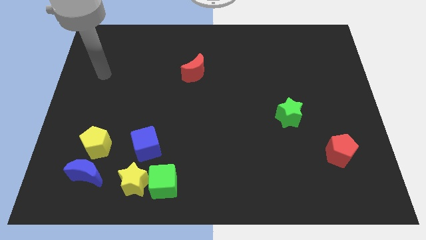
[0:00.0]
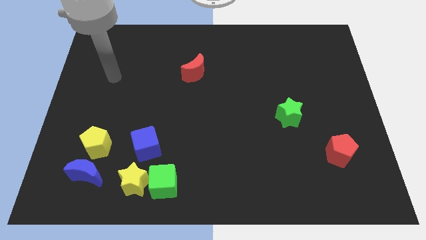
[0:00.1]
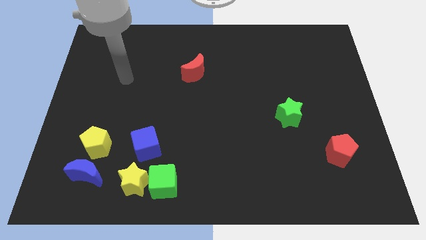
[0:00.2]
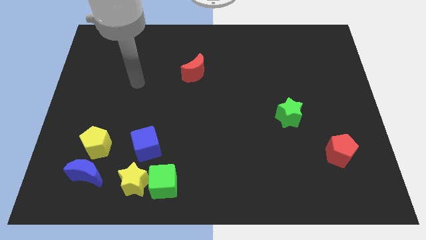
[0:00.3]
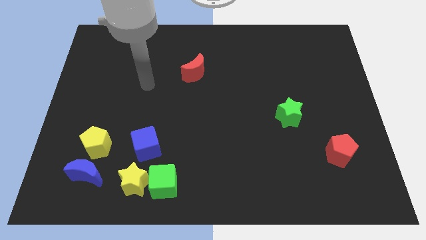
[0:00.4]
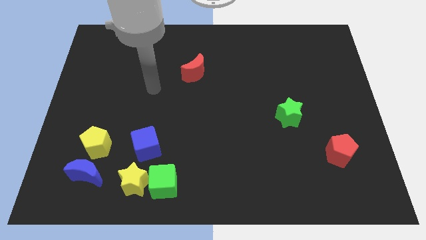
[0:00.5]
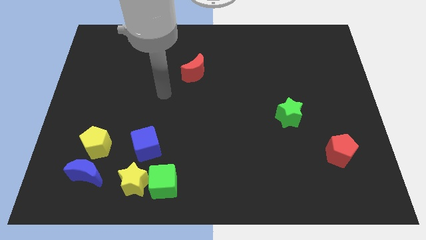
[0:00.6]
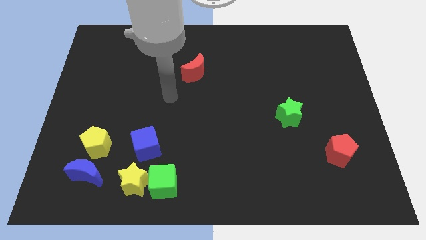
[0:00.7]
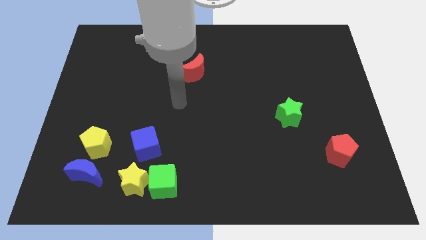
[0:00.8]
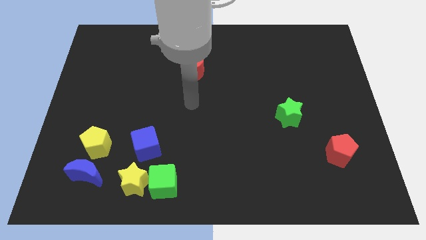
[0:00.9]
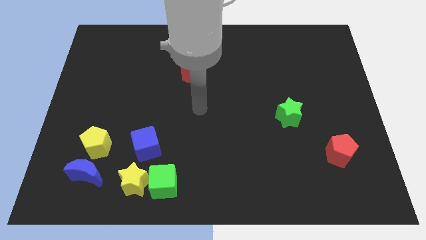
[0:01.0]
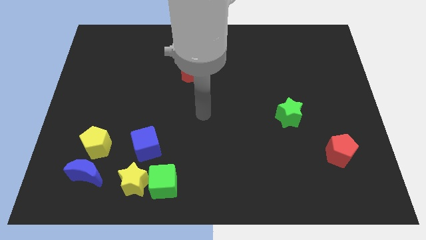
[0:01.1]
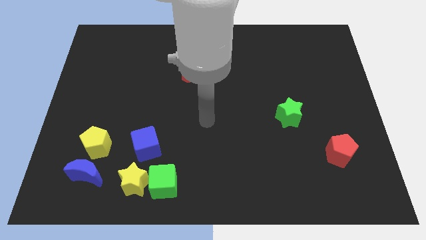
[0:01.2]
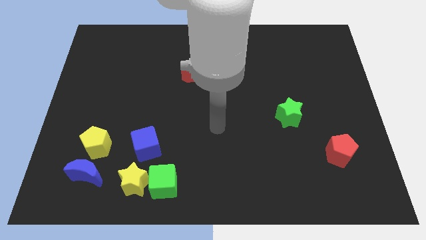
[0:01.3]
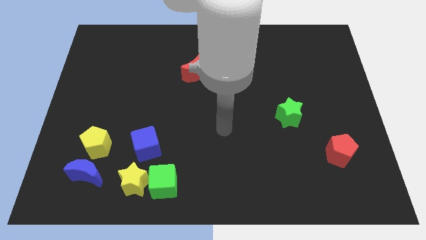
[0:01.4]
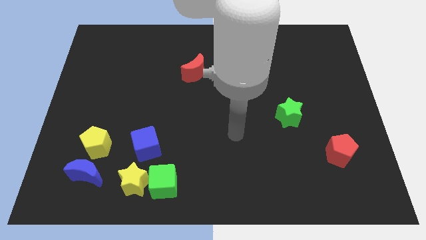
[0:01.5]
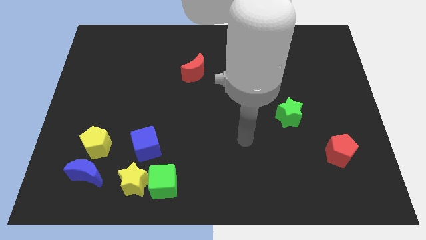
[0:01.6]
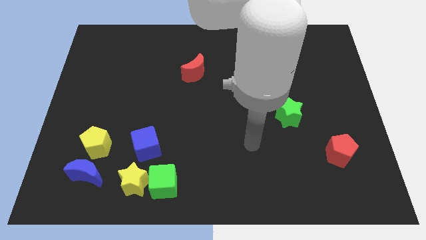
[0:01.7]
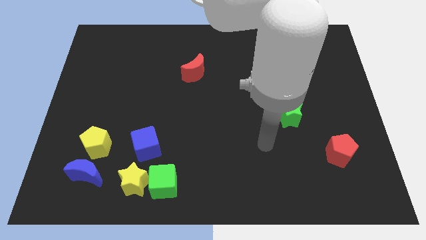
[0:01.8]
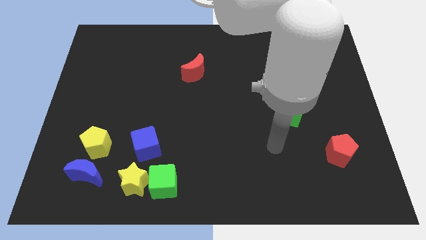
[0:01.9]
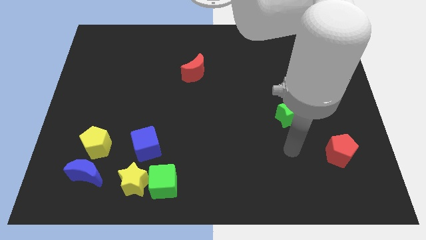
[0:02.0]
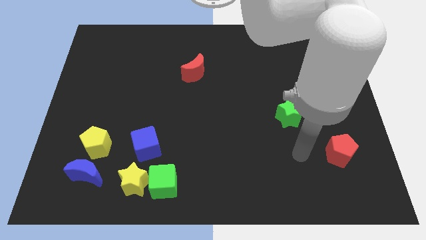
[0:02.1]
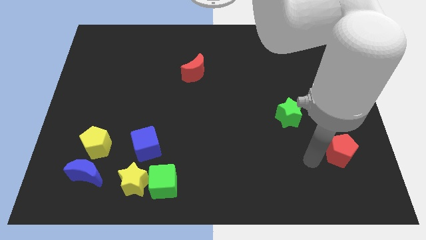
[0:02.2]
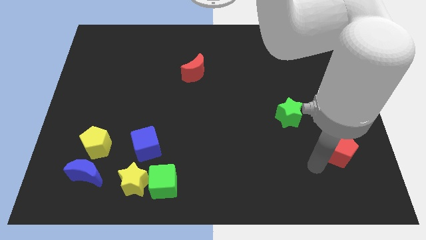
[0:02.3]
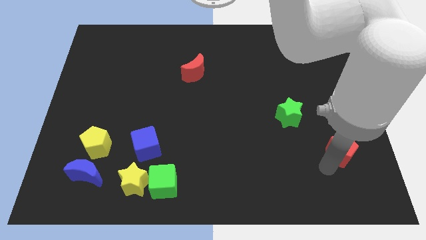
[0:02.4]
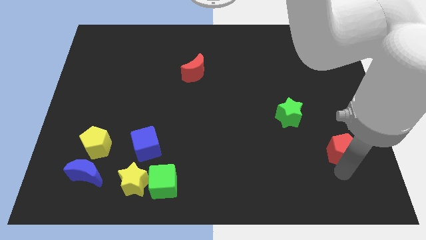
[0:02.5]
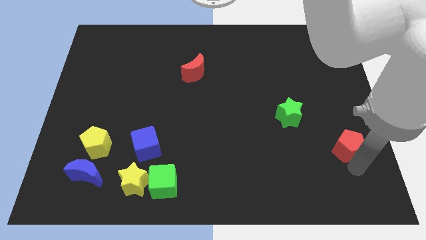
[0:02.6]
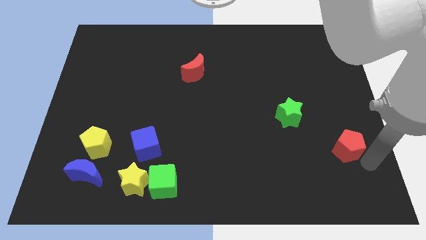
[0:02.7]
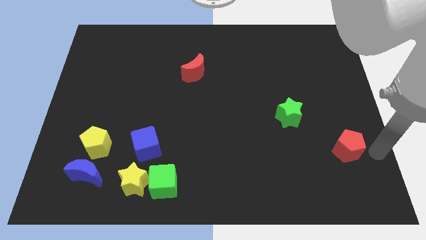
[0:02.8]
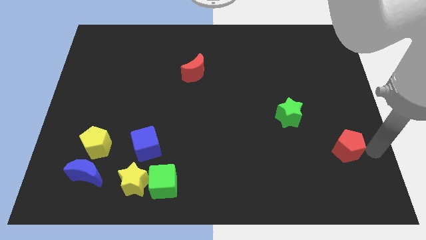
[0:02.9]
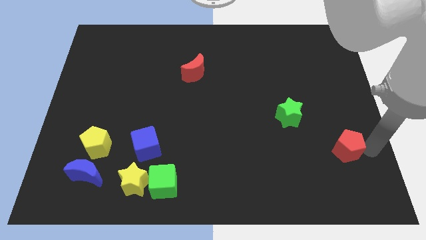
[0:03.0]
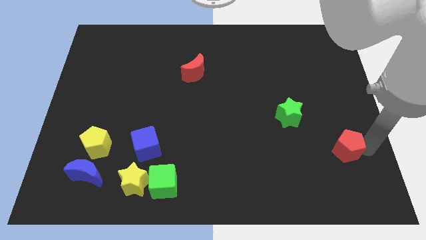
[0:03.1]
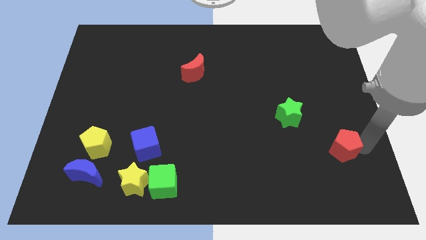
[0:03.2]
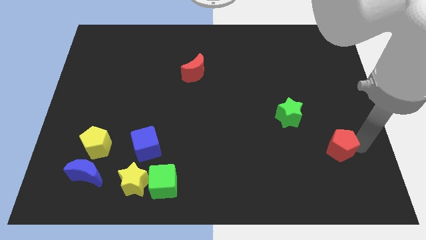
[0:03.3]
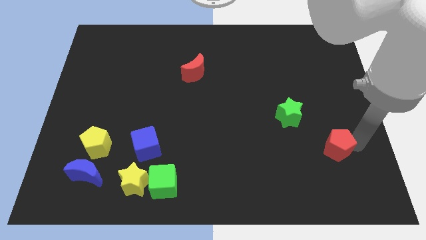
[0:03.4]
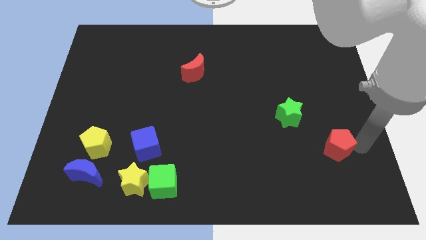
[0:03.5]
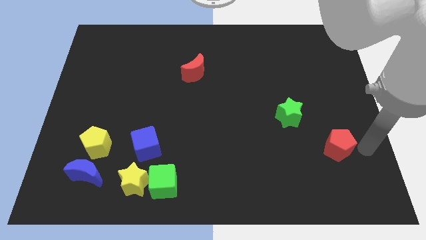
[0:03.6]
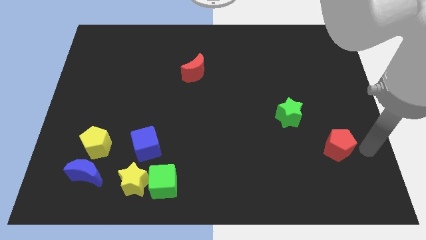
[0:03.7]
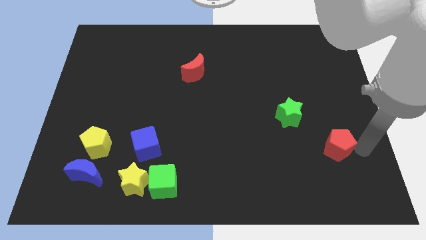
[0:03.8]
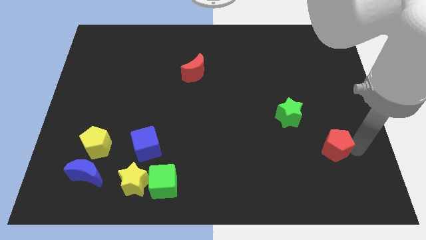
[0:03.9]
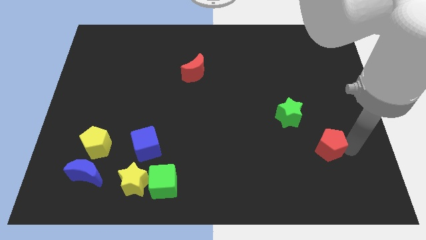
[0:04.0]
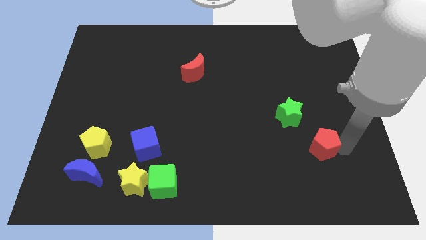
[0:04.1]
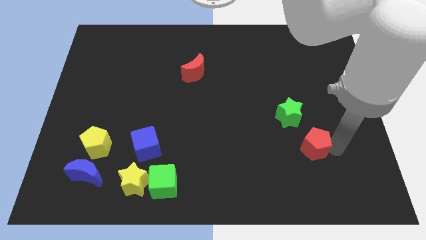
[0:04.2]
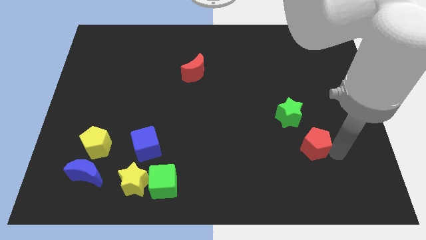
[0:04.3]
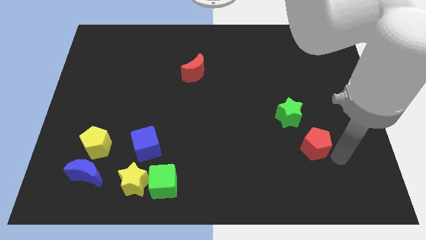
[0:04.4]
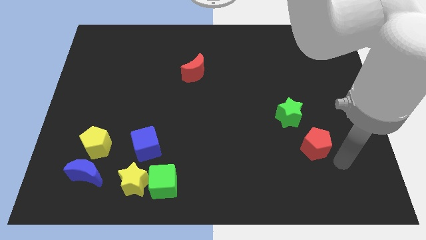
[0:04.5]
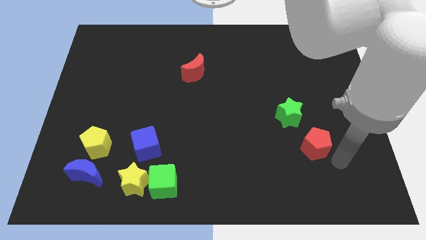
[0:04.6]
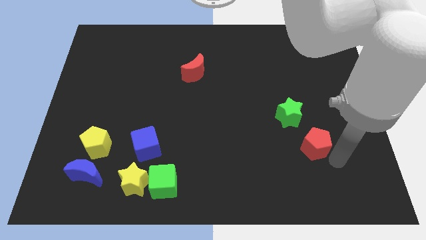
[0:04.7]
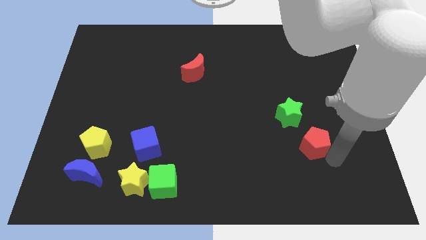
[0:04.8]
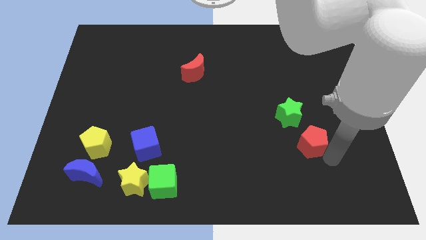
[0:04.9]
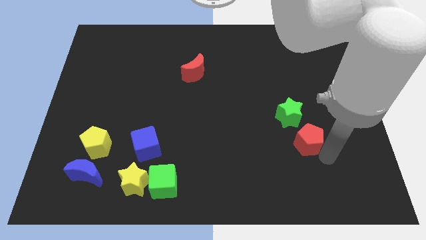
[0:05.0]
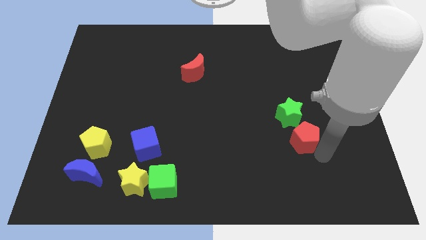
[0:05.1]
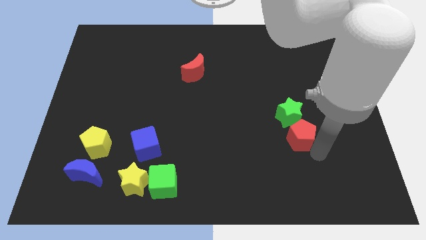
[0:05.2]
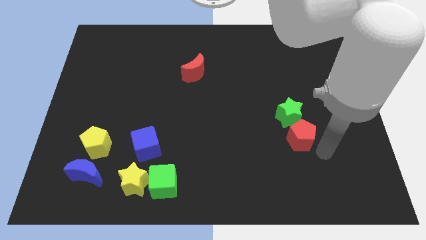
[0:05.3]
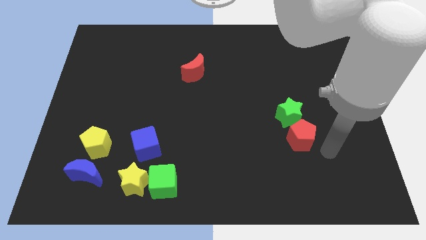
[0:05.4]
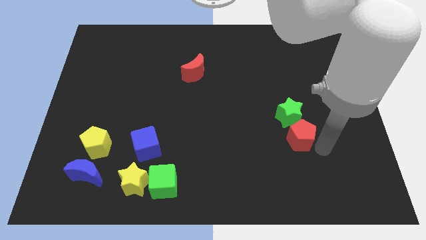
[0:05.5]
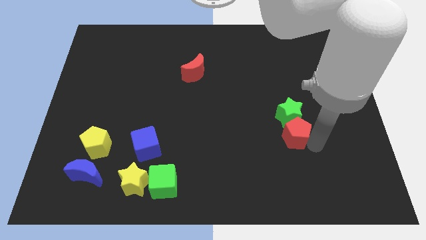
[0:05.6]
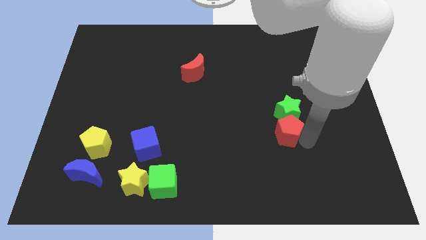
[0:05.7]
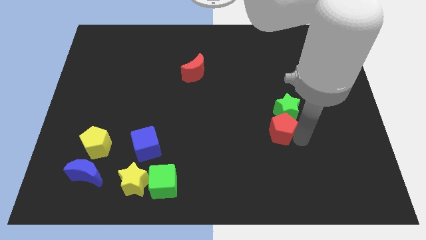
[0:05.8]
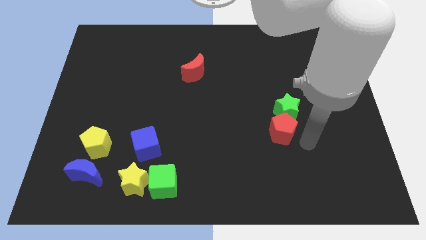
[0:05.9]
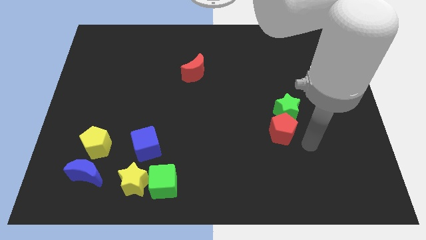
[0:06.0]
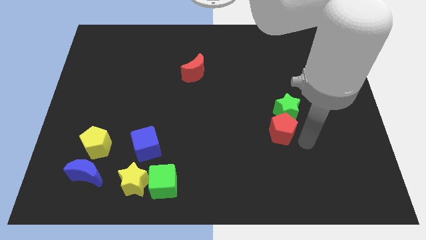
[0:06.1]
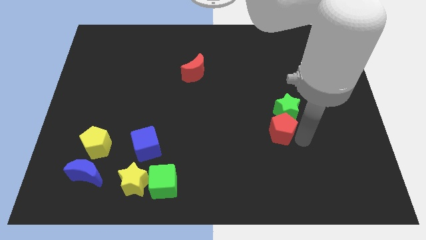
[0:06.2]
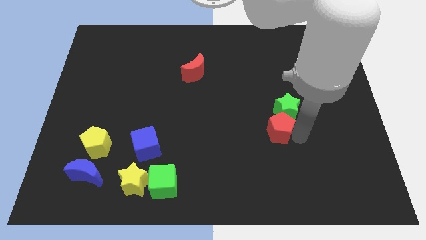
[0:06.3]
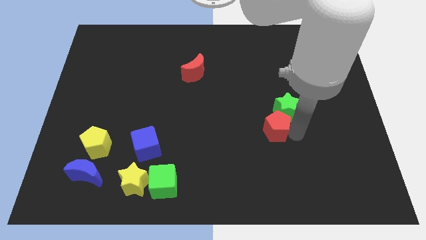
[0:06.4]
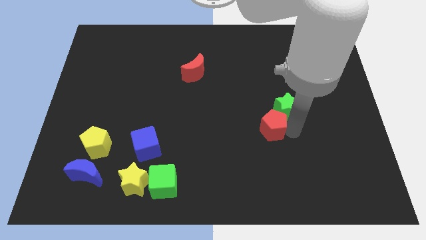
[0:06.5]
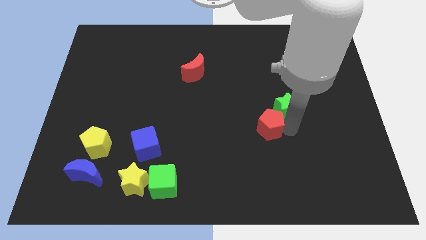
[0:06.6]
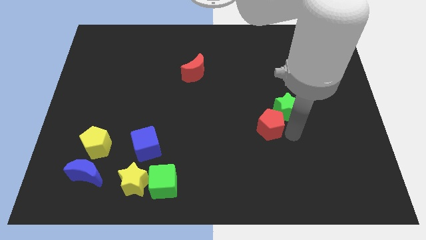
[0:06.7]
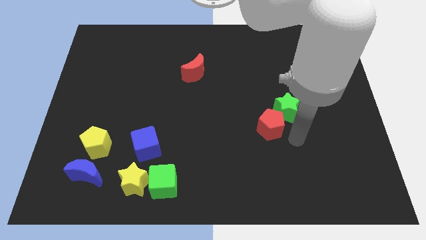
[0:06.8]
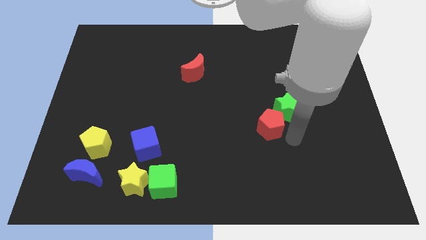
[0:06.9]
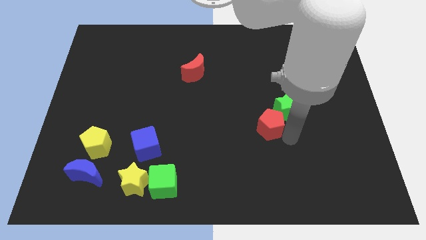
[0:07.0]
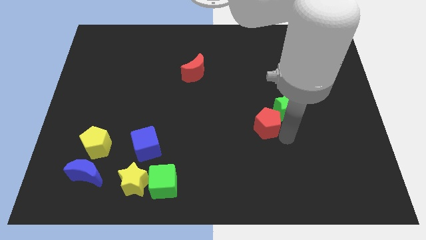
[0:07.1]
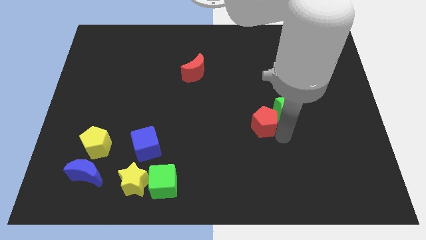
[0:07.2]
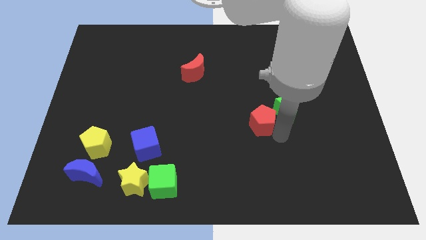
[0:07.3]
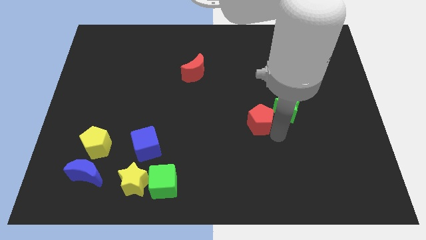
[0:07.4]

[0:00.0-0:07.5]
move the red pentagon to the middle of the board
